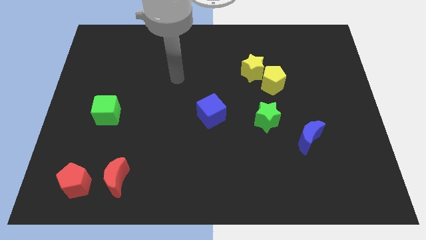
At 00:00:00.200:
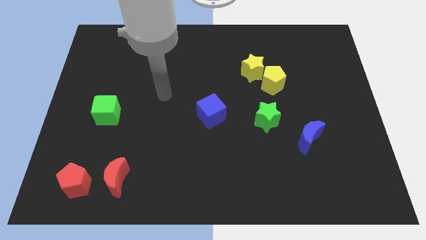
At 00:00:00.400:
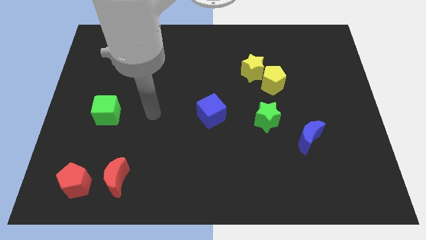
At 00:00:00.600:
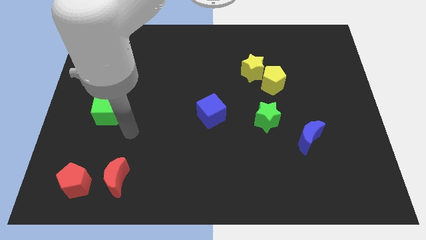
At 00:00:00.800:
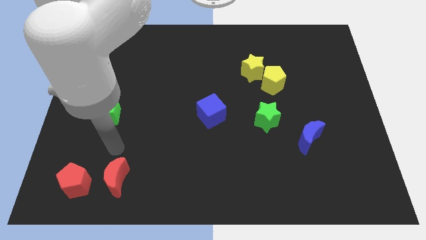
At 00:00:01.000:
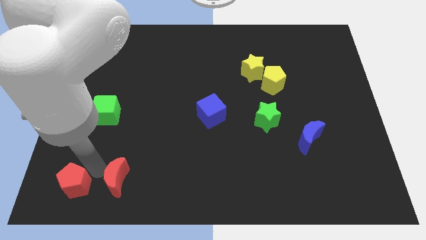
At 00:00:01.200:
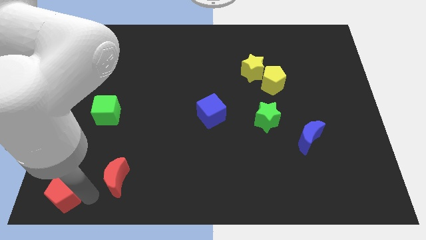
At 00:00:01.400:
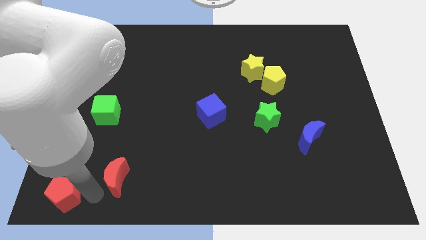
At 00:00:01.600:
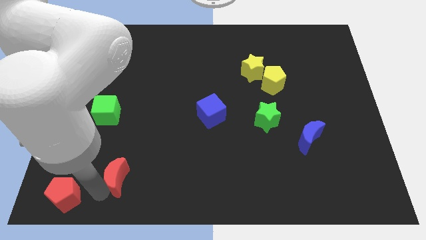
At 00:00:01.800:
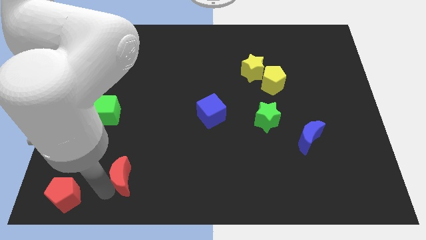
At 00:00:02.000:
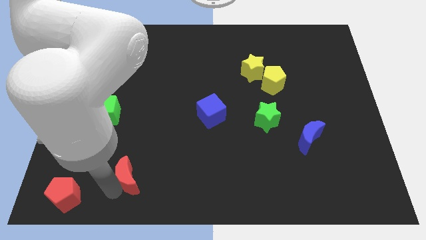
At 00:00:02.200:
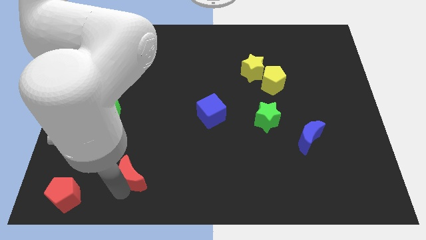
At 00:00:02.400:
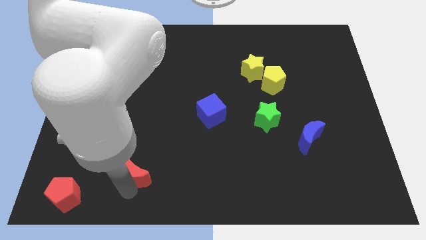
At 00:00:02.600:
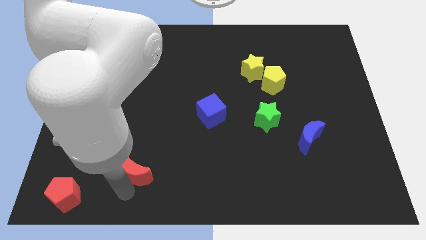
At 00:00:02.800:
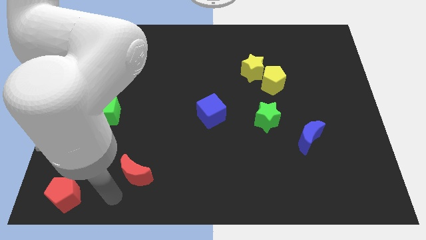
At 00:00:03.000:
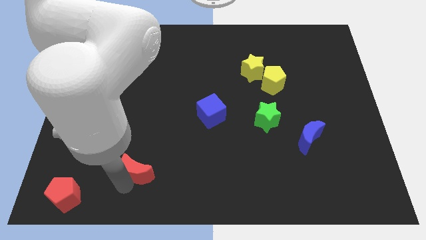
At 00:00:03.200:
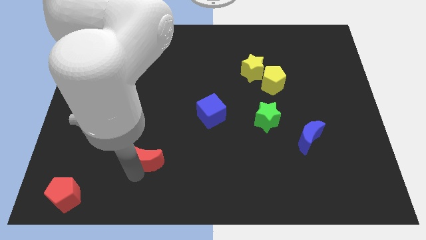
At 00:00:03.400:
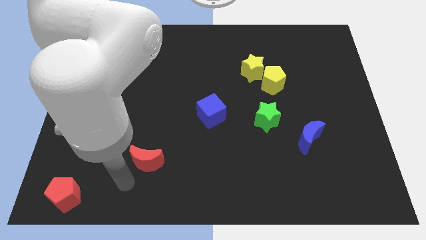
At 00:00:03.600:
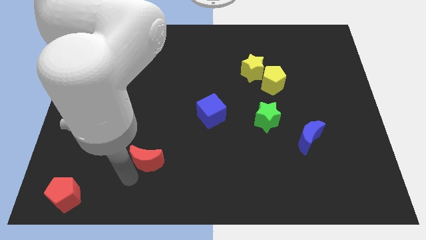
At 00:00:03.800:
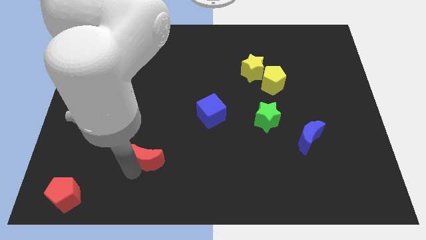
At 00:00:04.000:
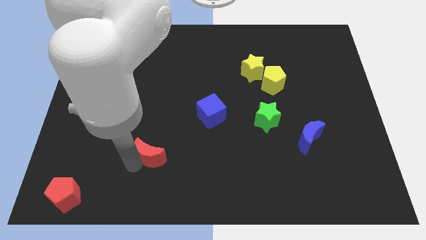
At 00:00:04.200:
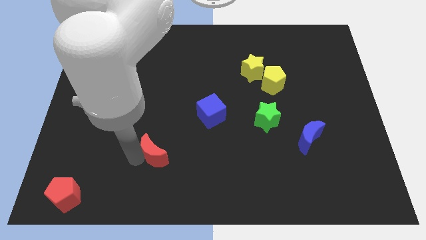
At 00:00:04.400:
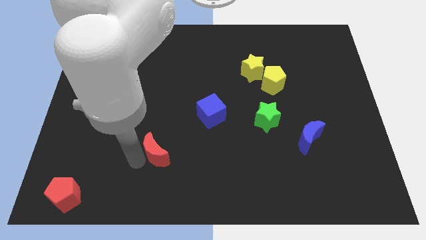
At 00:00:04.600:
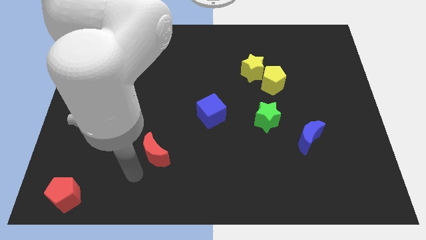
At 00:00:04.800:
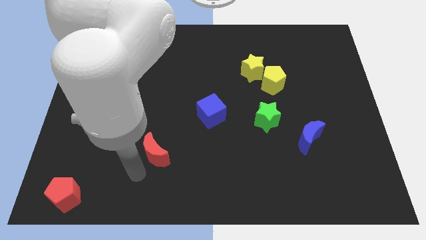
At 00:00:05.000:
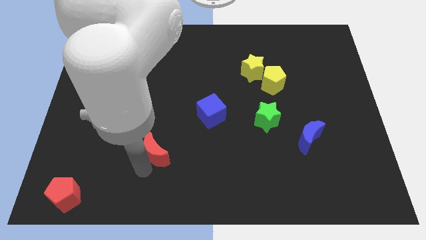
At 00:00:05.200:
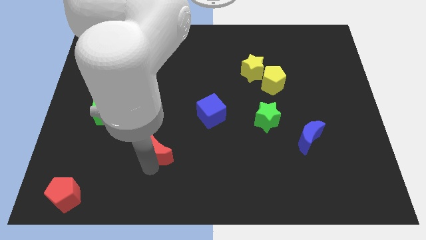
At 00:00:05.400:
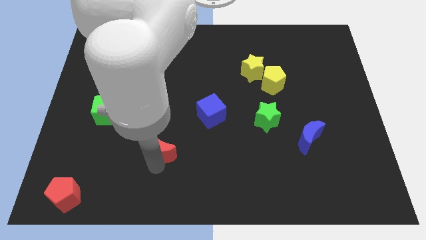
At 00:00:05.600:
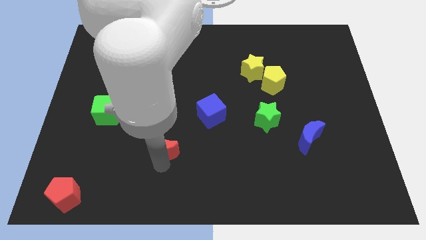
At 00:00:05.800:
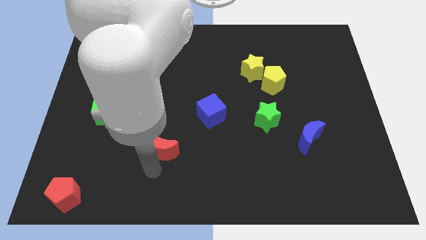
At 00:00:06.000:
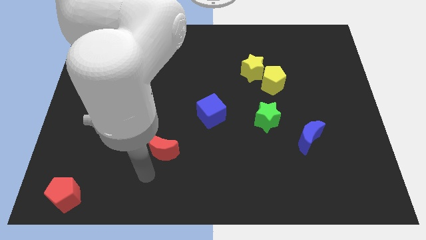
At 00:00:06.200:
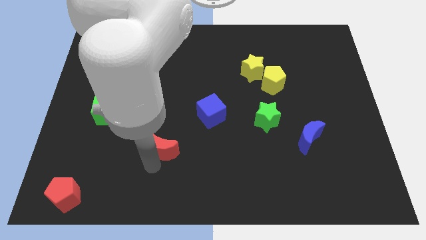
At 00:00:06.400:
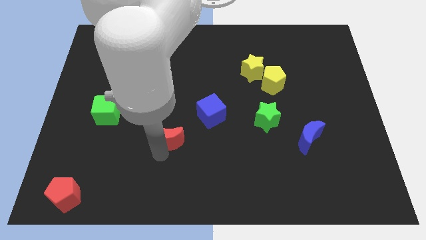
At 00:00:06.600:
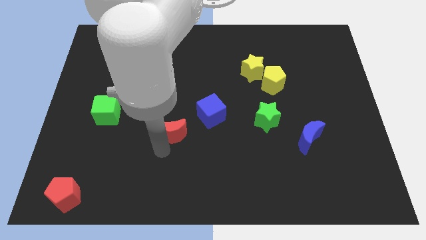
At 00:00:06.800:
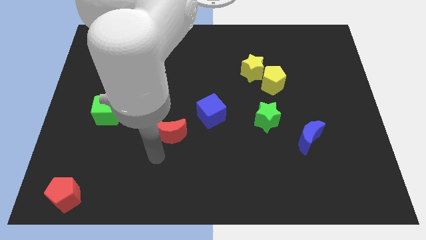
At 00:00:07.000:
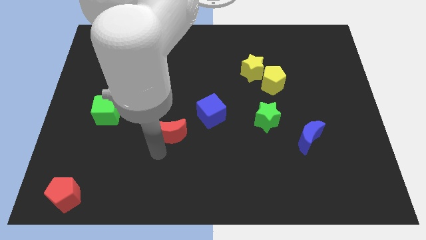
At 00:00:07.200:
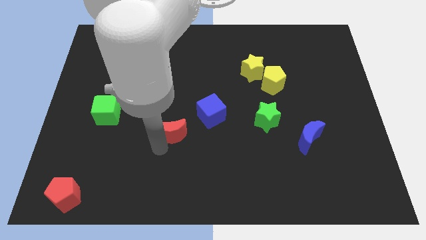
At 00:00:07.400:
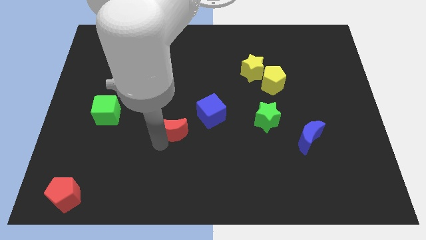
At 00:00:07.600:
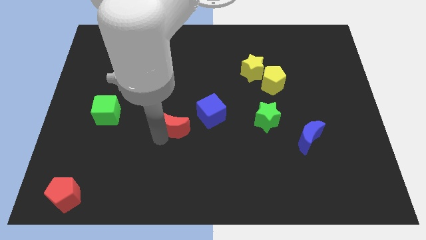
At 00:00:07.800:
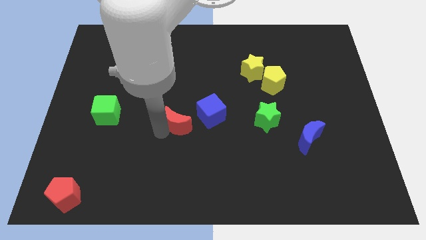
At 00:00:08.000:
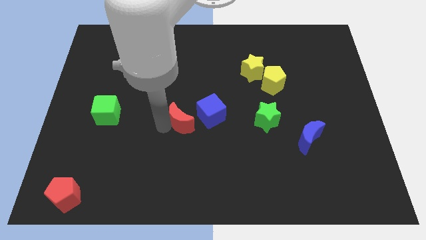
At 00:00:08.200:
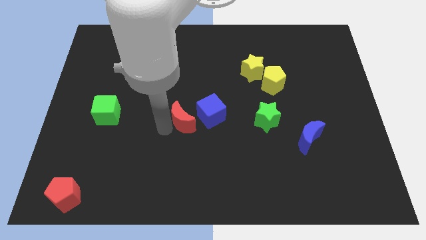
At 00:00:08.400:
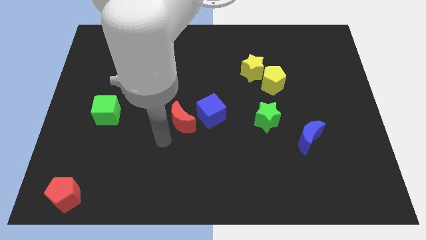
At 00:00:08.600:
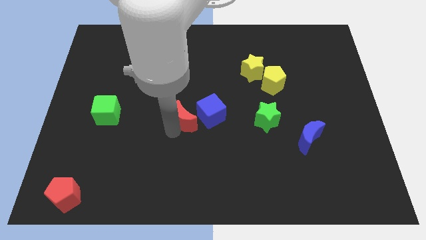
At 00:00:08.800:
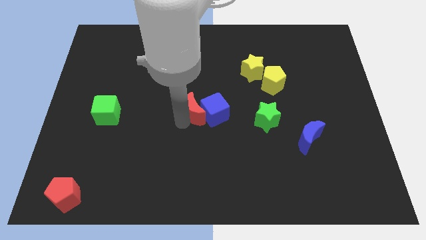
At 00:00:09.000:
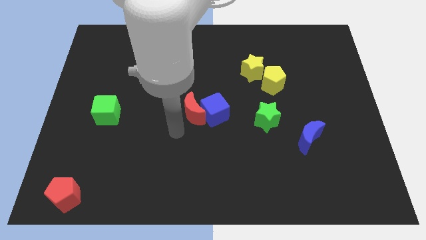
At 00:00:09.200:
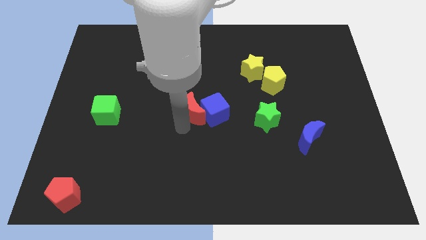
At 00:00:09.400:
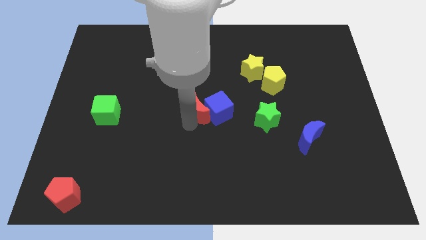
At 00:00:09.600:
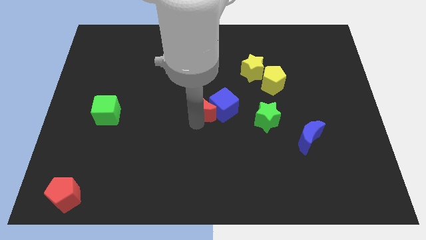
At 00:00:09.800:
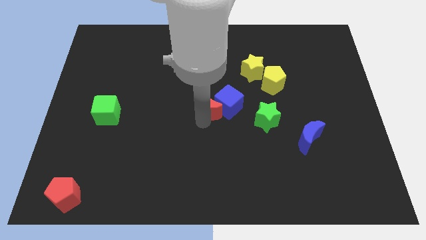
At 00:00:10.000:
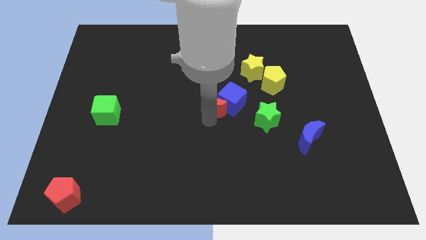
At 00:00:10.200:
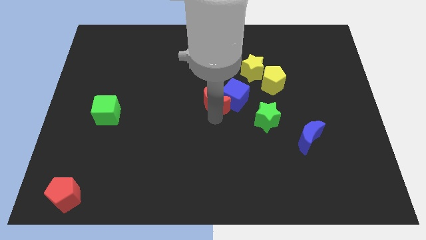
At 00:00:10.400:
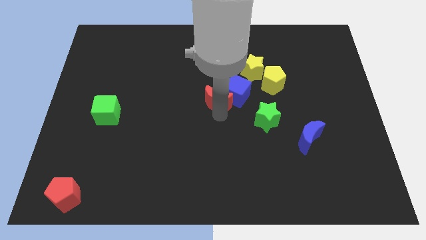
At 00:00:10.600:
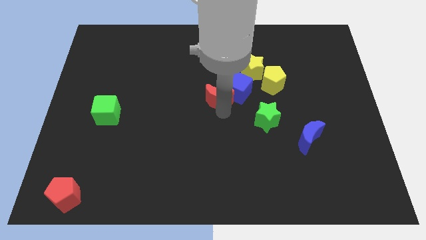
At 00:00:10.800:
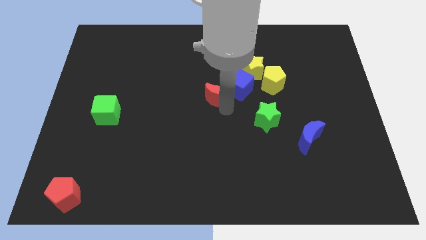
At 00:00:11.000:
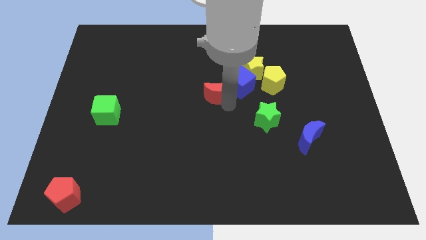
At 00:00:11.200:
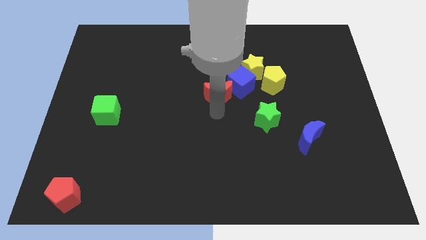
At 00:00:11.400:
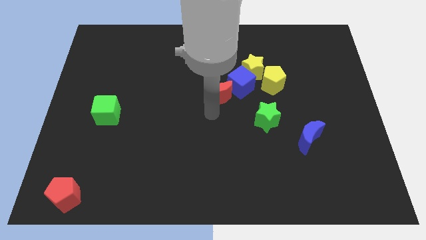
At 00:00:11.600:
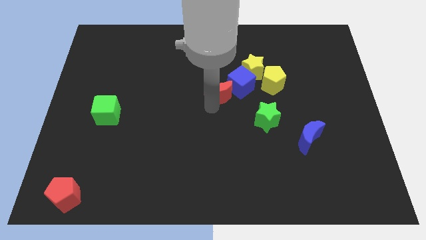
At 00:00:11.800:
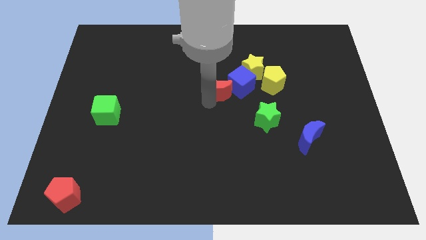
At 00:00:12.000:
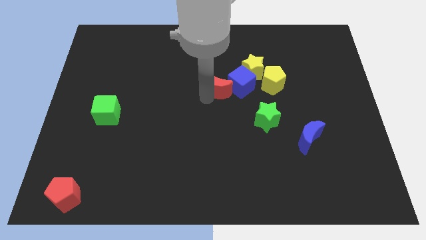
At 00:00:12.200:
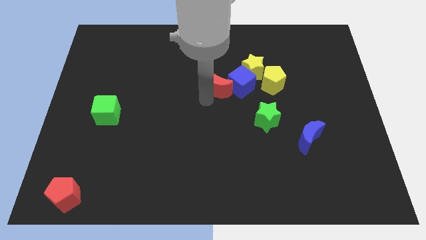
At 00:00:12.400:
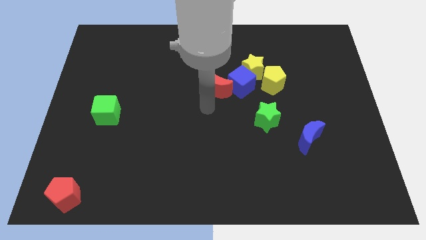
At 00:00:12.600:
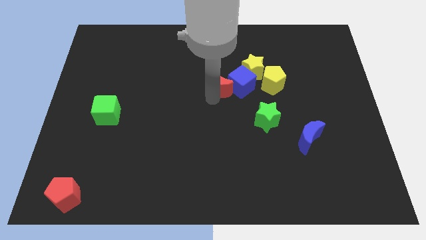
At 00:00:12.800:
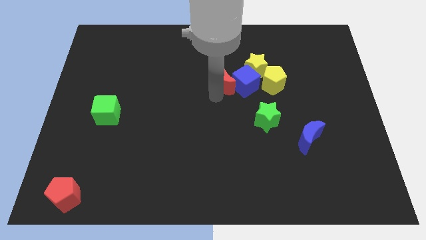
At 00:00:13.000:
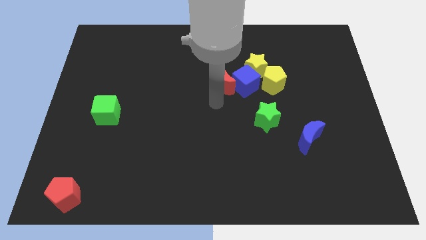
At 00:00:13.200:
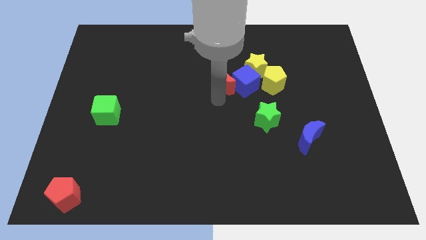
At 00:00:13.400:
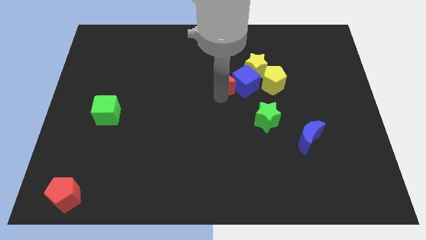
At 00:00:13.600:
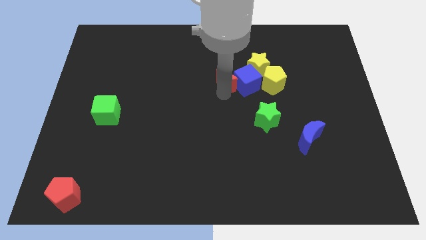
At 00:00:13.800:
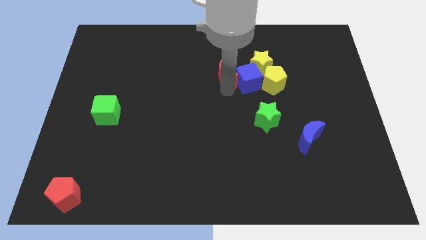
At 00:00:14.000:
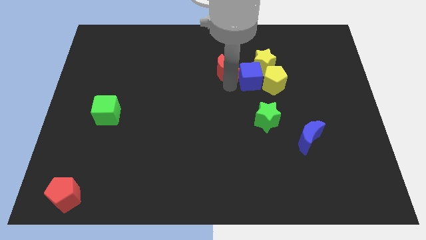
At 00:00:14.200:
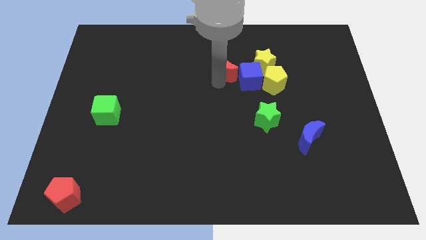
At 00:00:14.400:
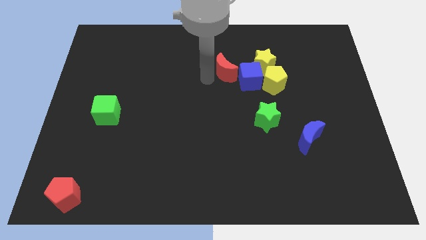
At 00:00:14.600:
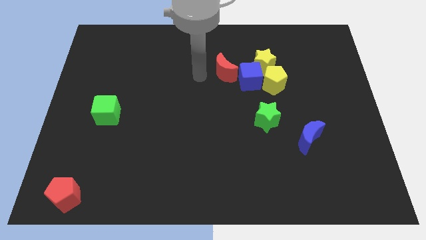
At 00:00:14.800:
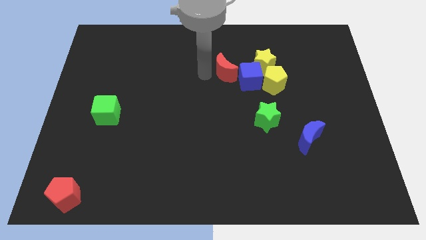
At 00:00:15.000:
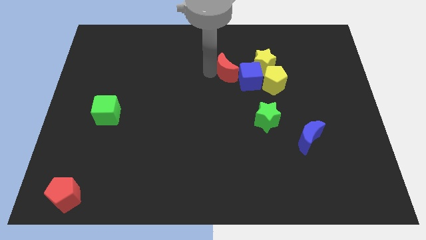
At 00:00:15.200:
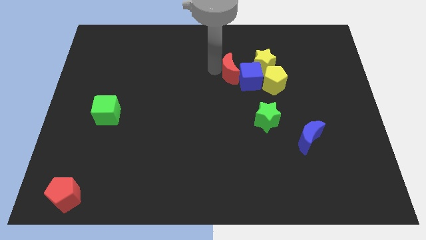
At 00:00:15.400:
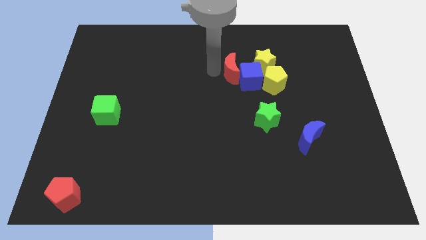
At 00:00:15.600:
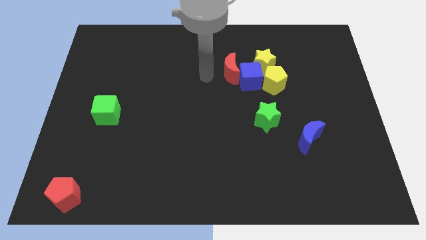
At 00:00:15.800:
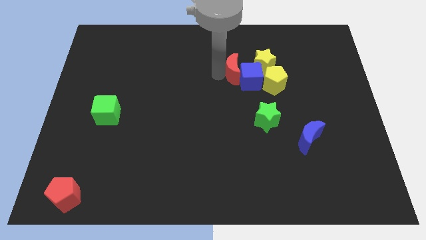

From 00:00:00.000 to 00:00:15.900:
put the red moon to the top left side of the yellow pentagon
